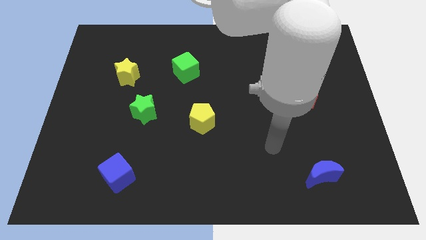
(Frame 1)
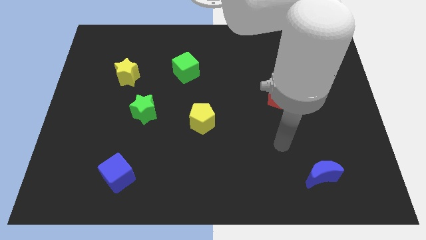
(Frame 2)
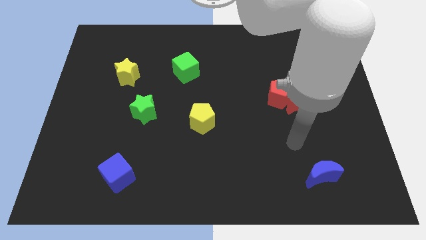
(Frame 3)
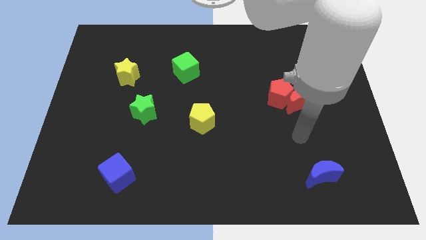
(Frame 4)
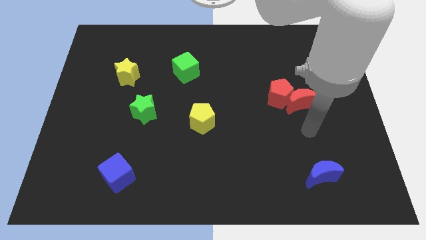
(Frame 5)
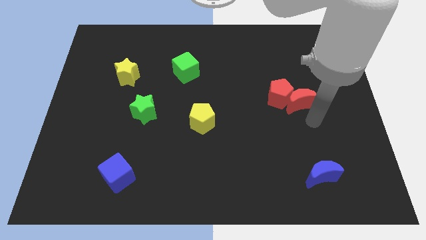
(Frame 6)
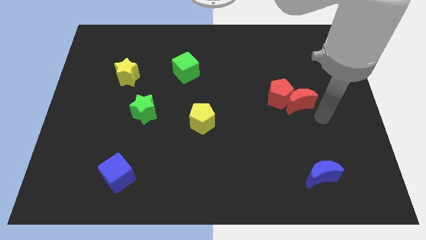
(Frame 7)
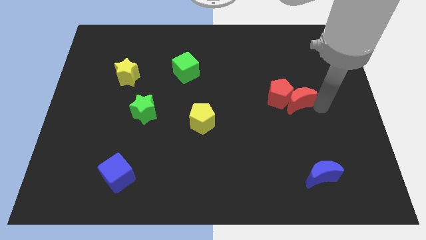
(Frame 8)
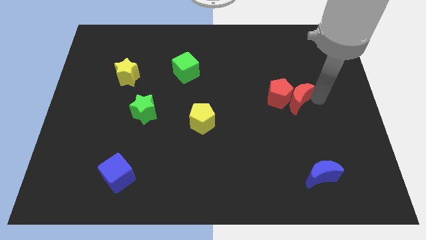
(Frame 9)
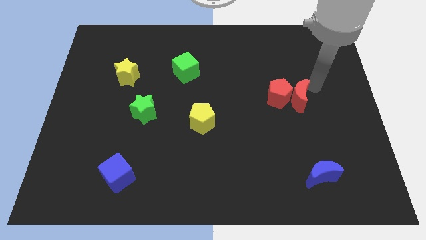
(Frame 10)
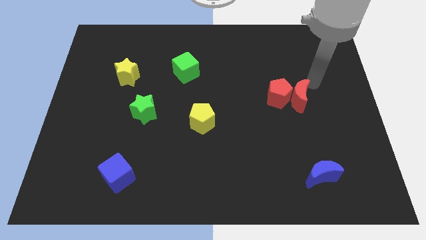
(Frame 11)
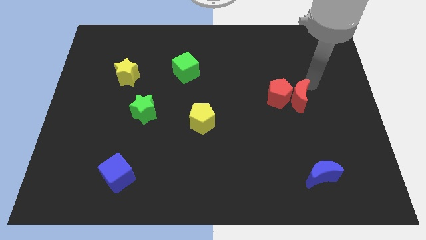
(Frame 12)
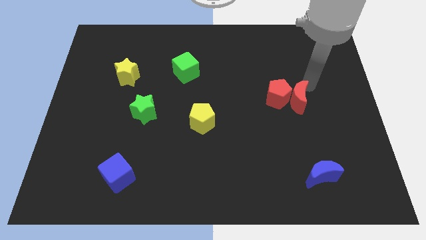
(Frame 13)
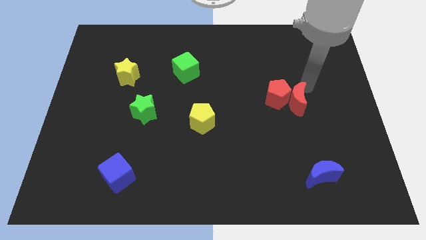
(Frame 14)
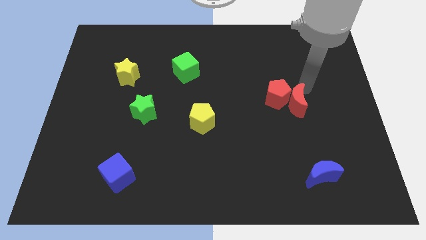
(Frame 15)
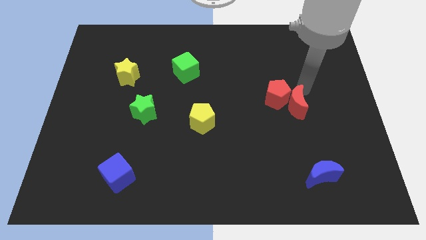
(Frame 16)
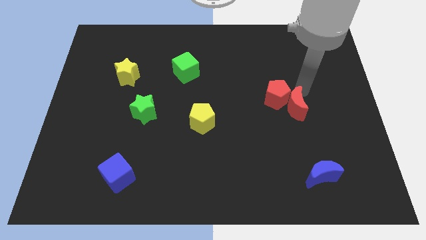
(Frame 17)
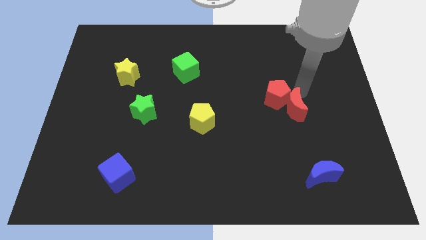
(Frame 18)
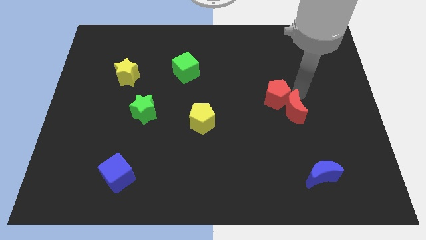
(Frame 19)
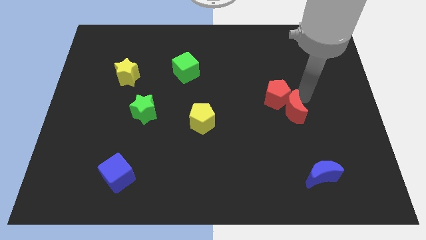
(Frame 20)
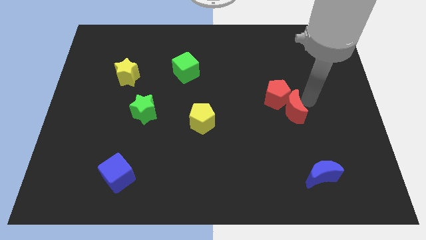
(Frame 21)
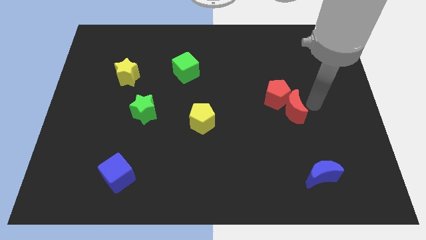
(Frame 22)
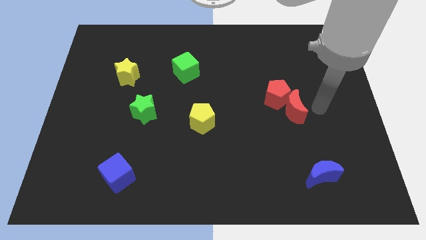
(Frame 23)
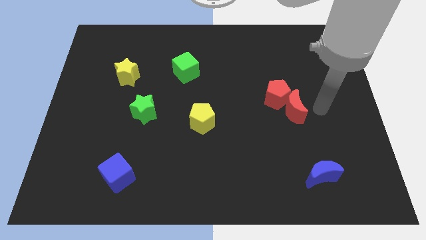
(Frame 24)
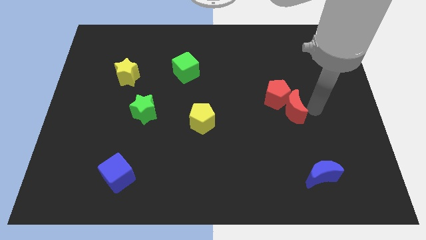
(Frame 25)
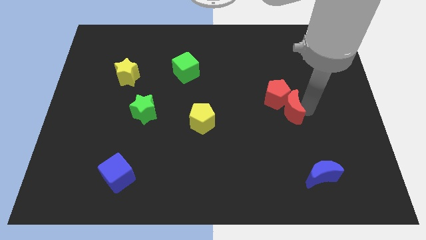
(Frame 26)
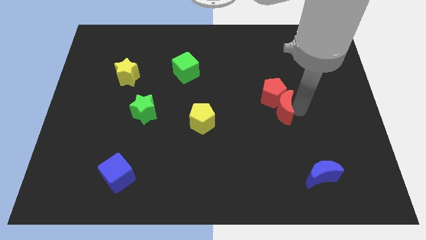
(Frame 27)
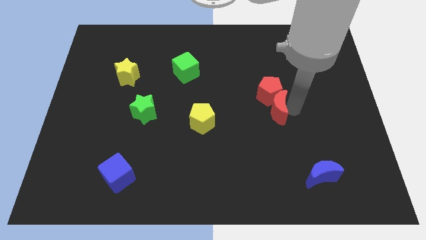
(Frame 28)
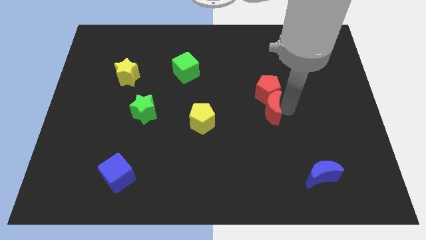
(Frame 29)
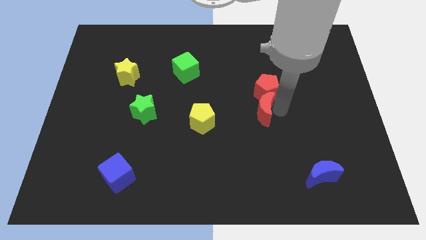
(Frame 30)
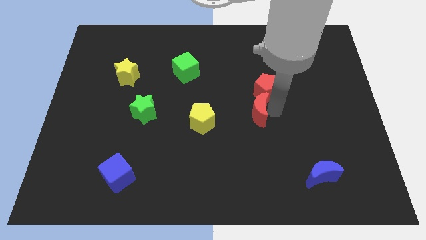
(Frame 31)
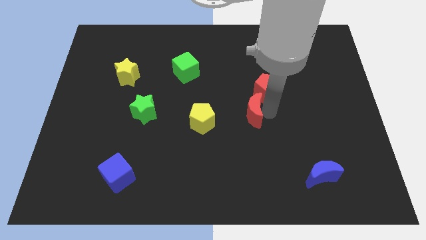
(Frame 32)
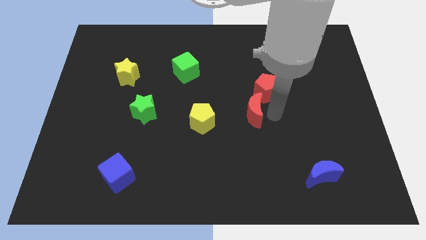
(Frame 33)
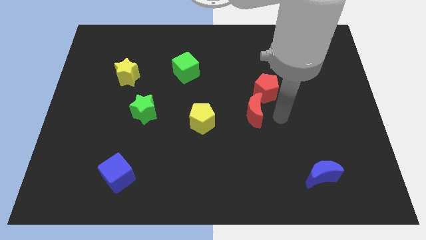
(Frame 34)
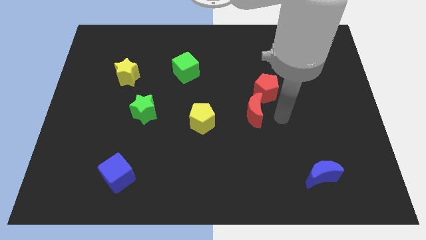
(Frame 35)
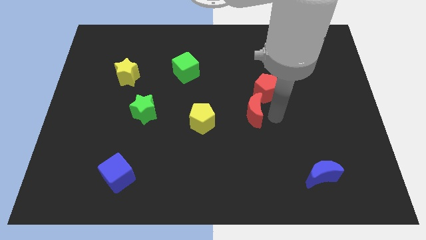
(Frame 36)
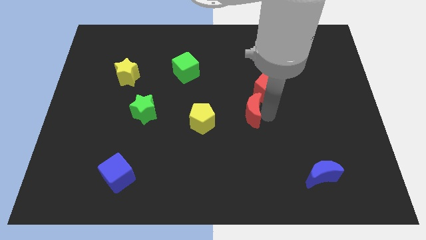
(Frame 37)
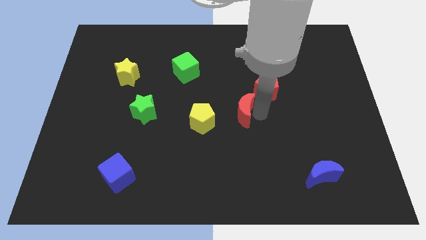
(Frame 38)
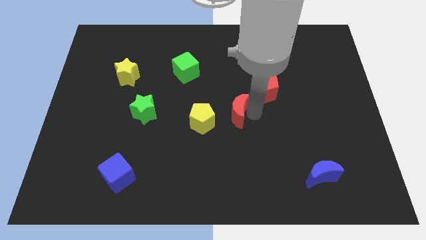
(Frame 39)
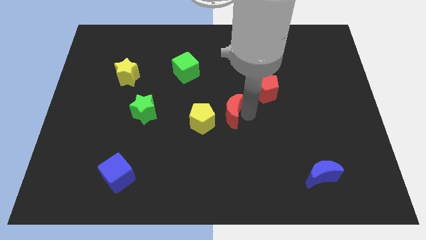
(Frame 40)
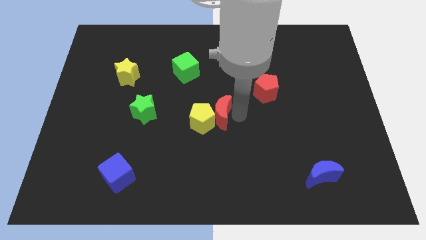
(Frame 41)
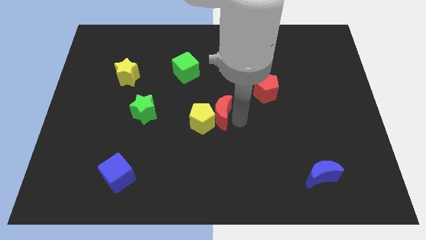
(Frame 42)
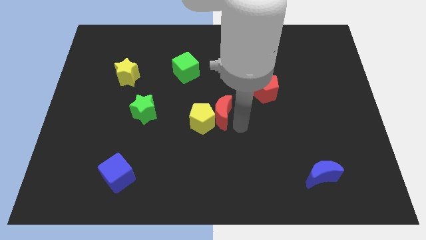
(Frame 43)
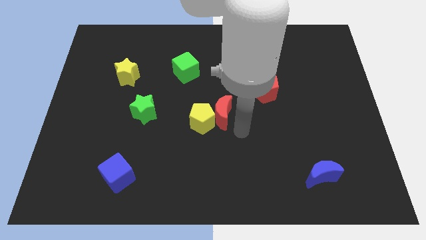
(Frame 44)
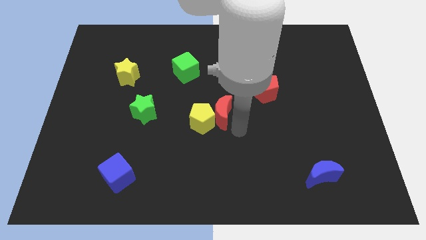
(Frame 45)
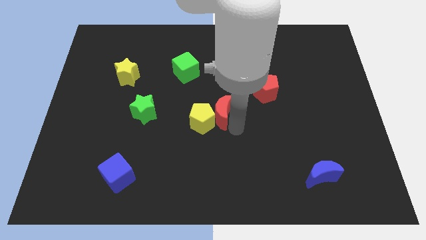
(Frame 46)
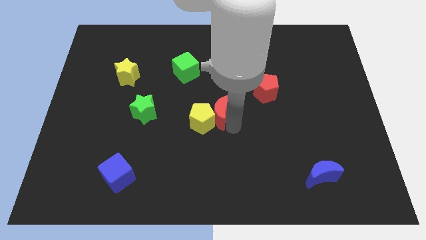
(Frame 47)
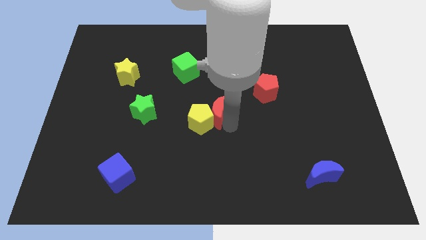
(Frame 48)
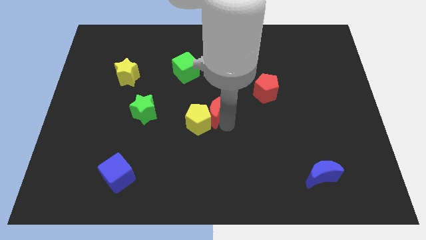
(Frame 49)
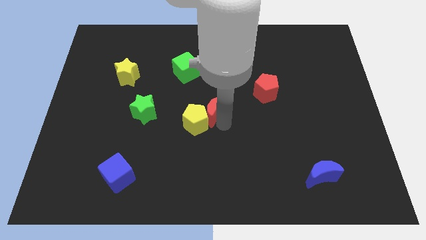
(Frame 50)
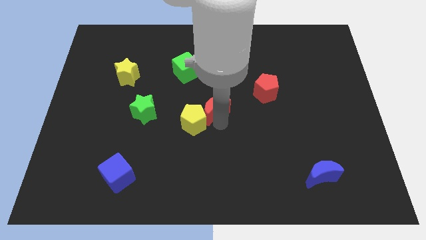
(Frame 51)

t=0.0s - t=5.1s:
slide the red moon to the left

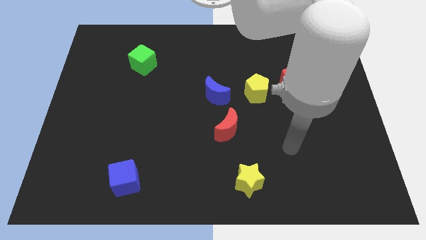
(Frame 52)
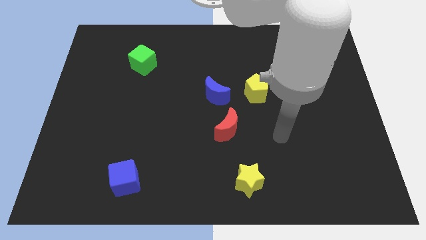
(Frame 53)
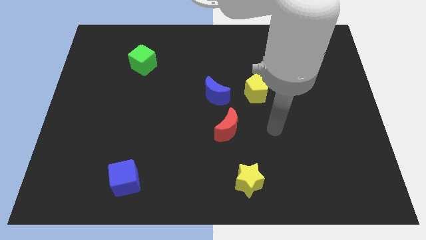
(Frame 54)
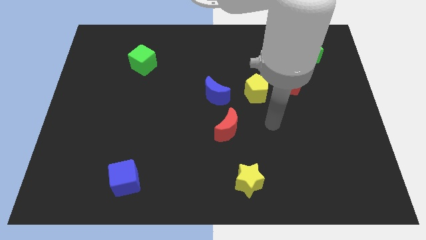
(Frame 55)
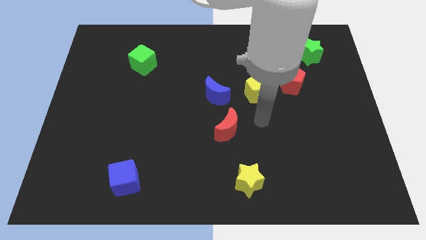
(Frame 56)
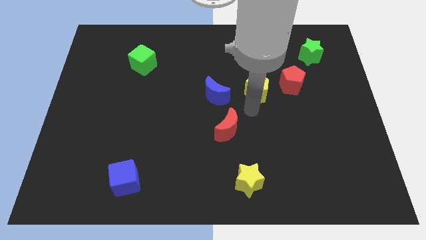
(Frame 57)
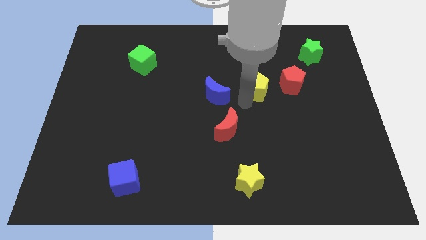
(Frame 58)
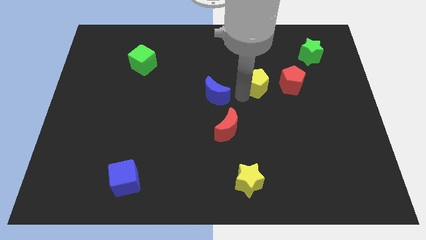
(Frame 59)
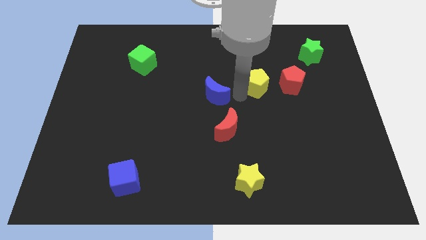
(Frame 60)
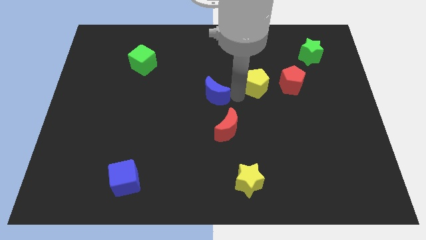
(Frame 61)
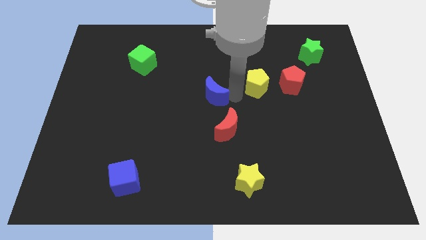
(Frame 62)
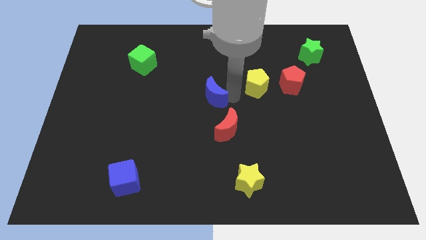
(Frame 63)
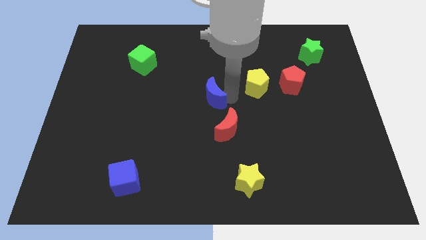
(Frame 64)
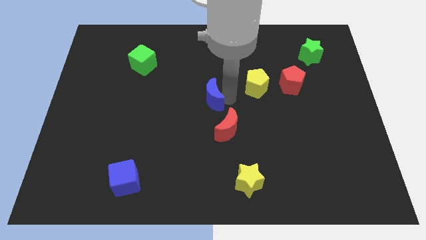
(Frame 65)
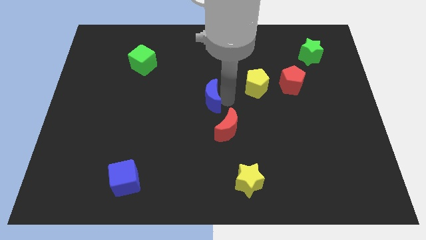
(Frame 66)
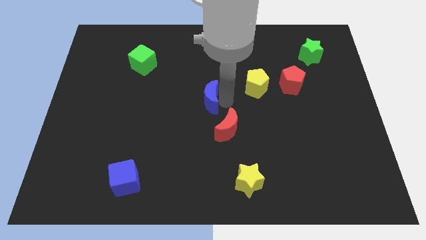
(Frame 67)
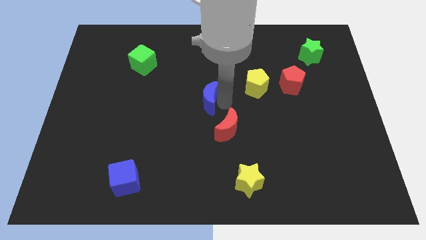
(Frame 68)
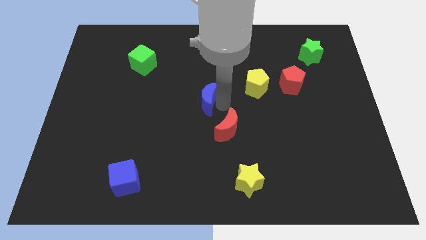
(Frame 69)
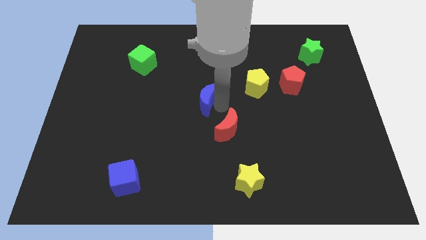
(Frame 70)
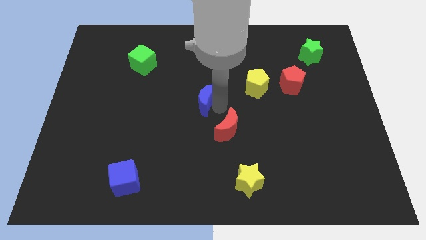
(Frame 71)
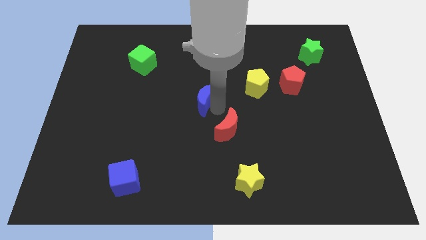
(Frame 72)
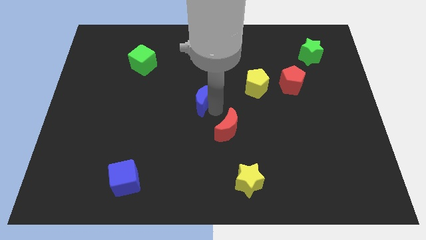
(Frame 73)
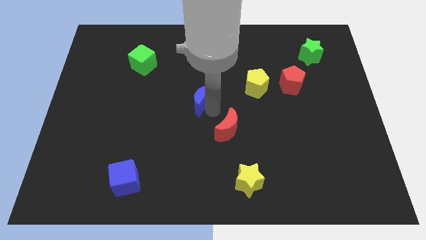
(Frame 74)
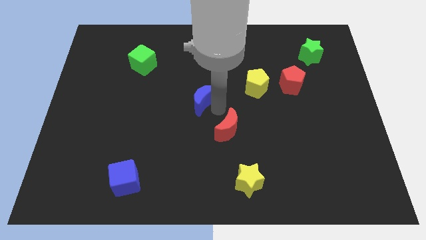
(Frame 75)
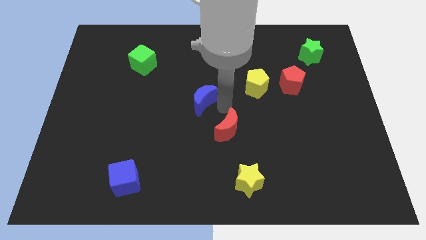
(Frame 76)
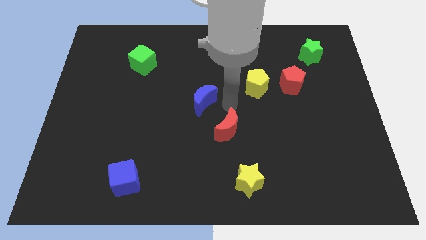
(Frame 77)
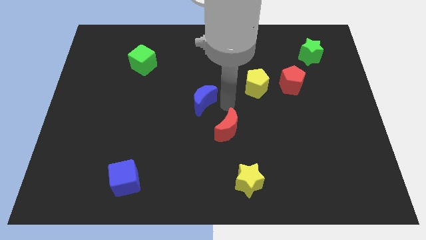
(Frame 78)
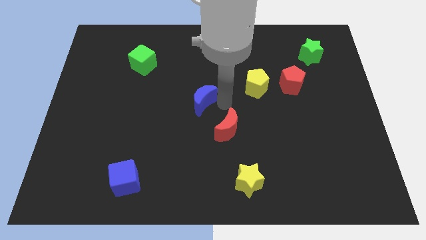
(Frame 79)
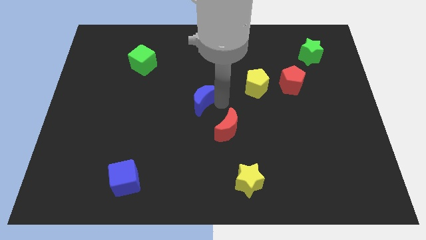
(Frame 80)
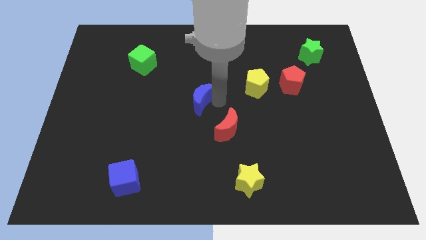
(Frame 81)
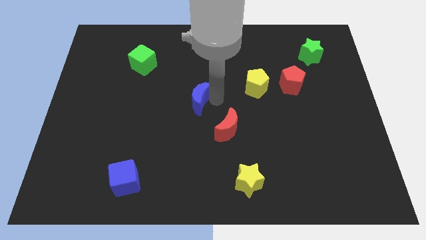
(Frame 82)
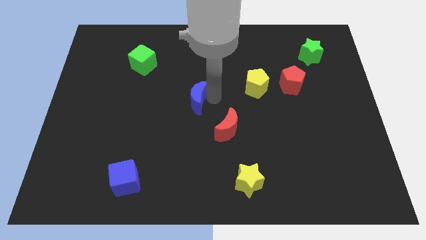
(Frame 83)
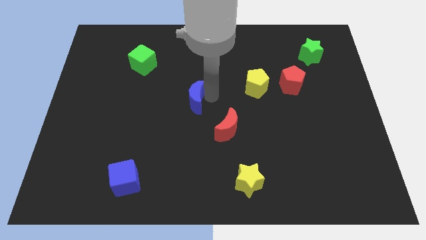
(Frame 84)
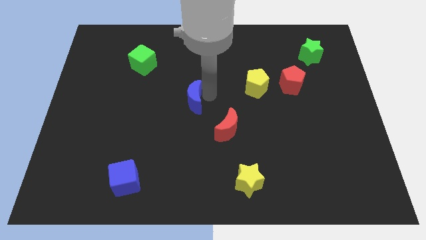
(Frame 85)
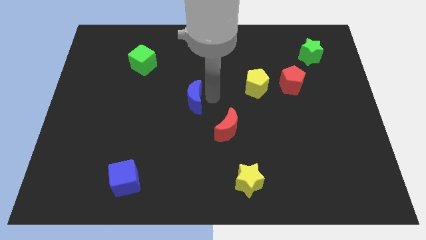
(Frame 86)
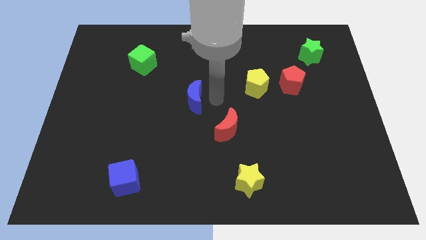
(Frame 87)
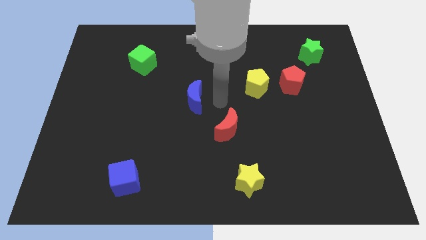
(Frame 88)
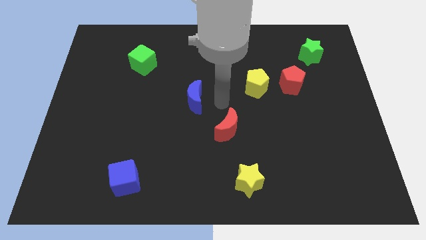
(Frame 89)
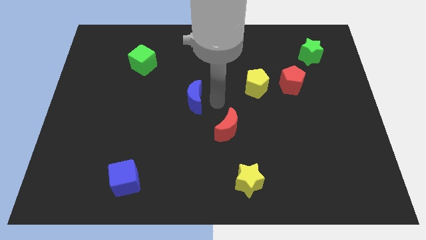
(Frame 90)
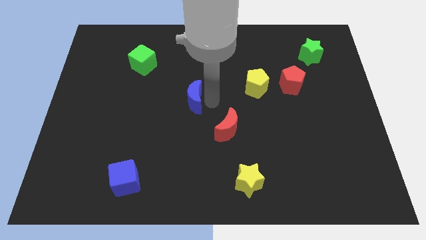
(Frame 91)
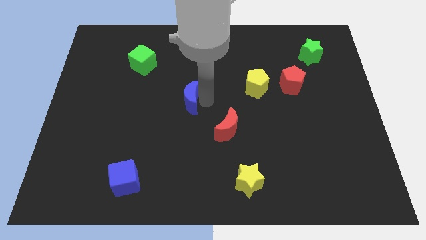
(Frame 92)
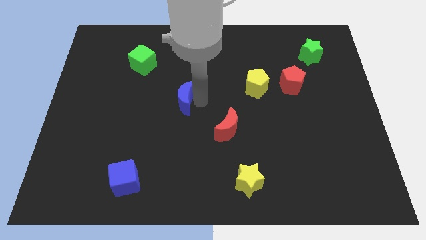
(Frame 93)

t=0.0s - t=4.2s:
push the blue moon left a bit
